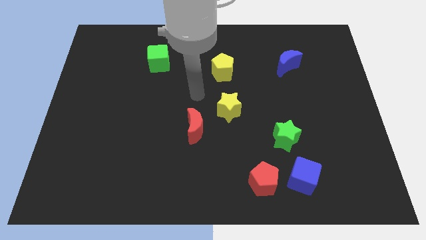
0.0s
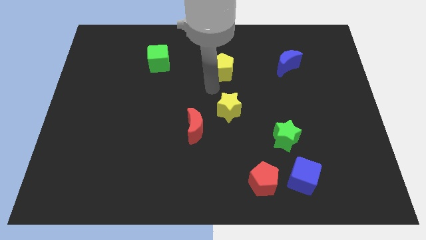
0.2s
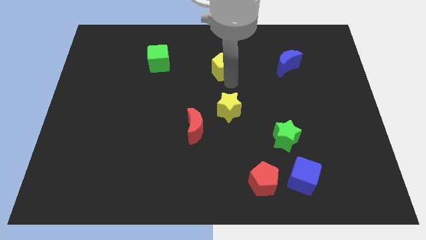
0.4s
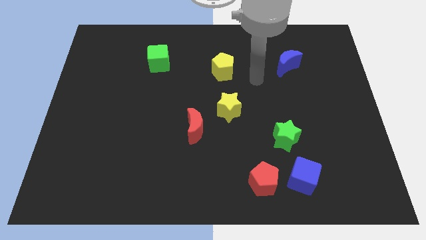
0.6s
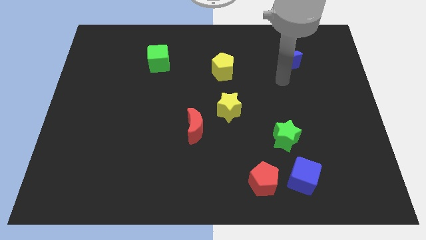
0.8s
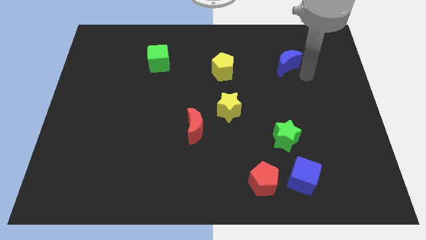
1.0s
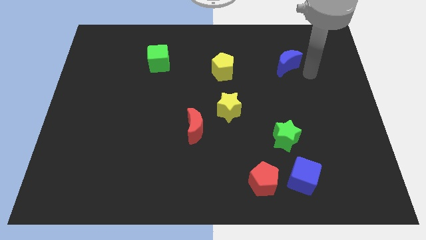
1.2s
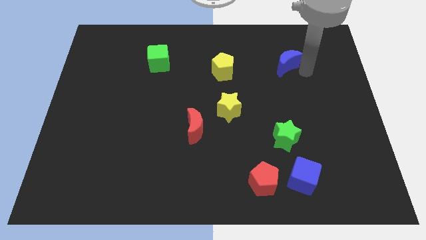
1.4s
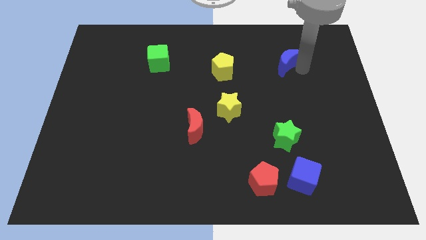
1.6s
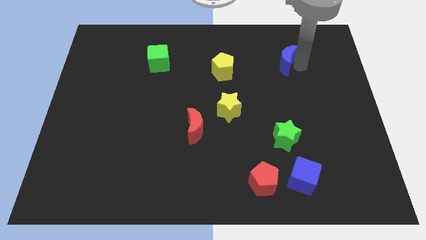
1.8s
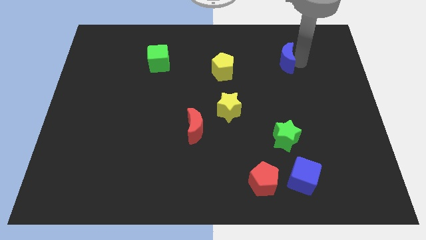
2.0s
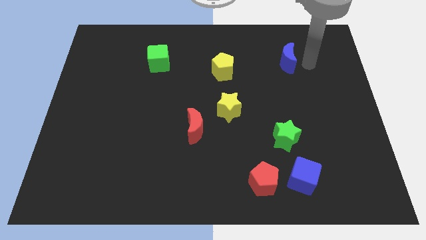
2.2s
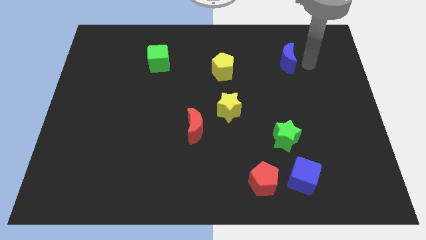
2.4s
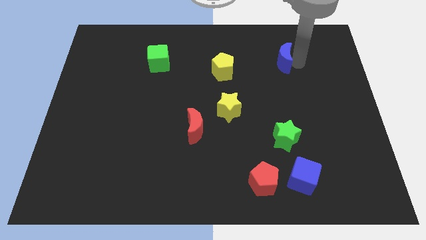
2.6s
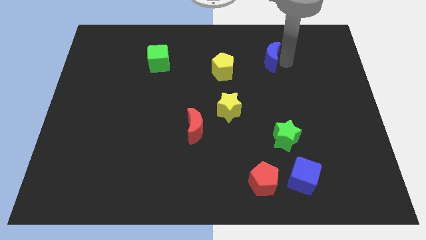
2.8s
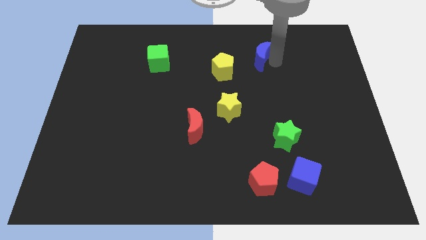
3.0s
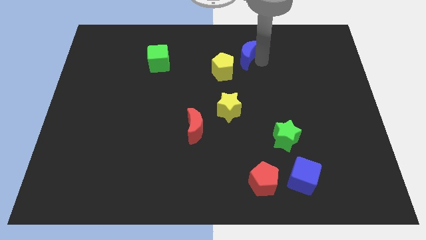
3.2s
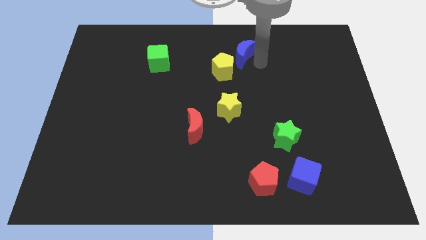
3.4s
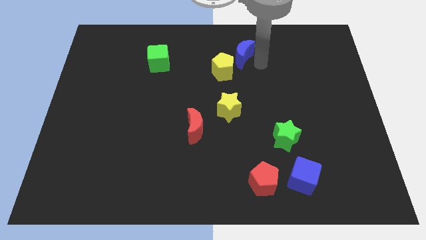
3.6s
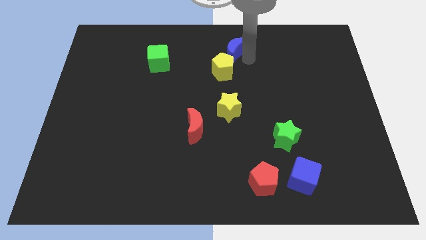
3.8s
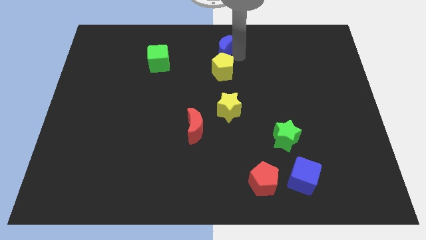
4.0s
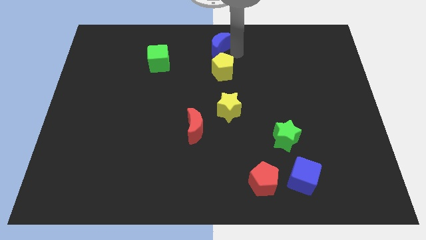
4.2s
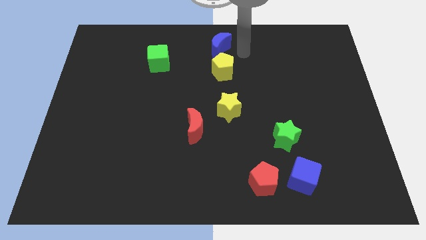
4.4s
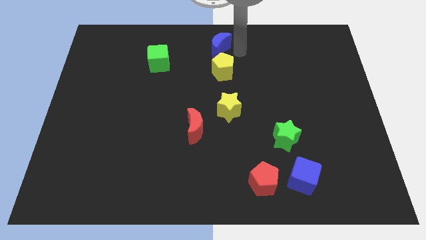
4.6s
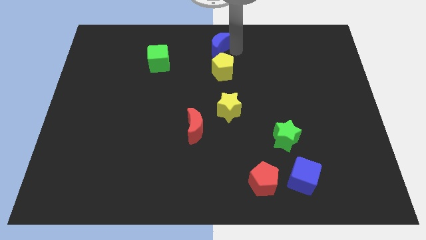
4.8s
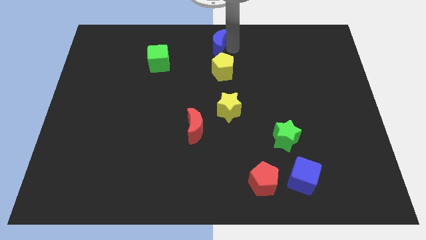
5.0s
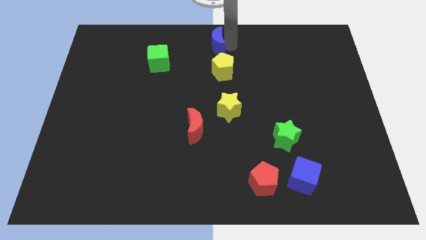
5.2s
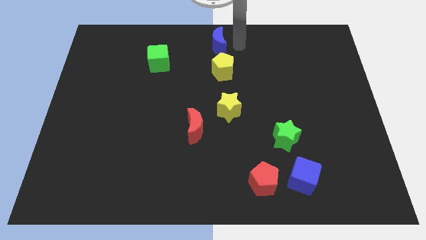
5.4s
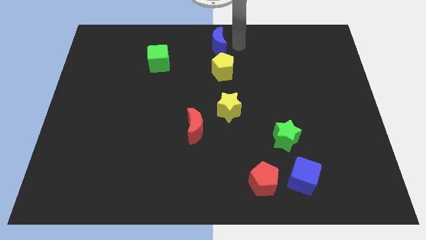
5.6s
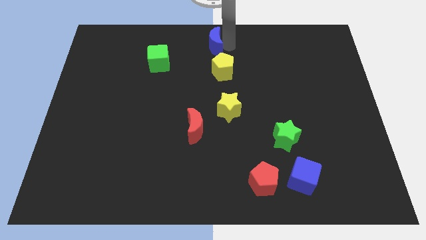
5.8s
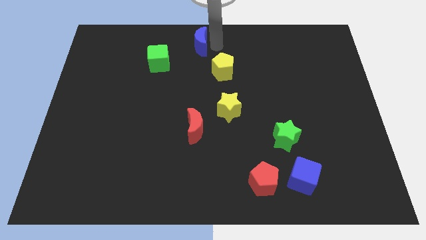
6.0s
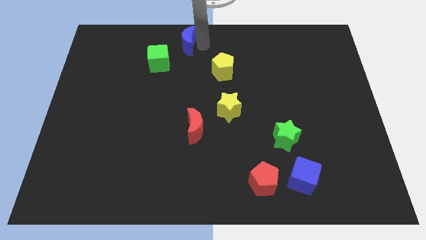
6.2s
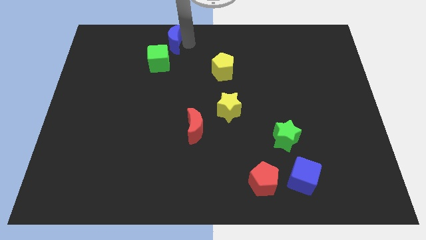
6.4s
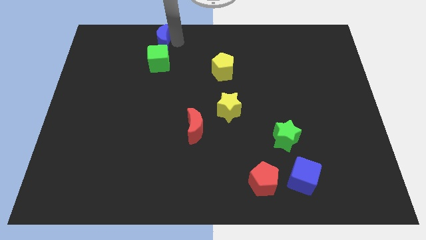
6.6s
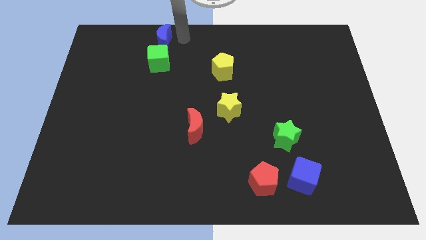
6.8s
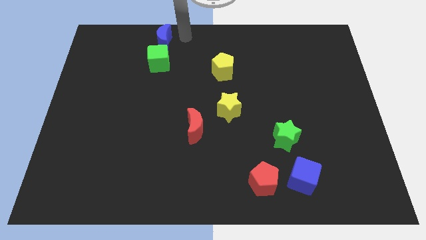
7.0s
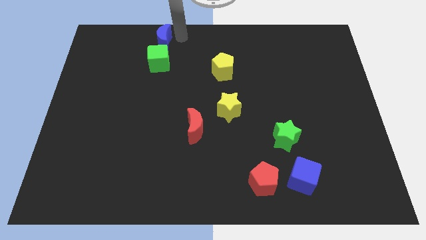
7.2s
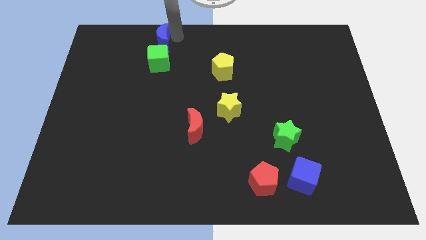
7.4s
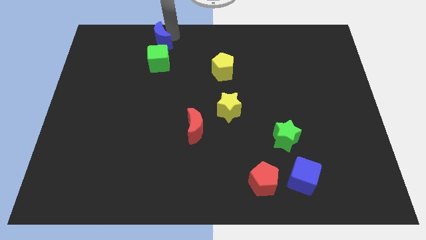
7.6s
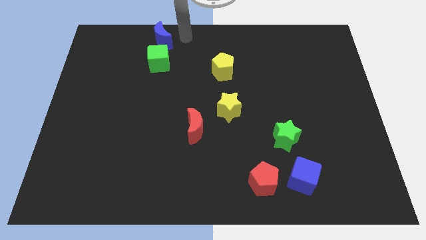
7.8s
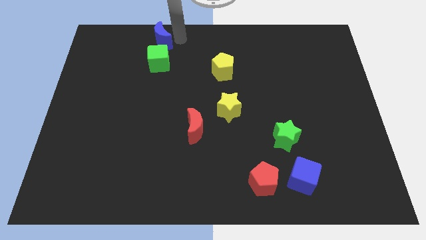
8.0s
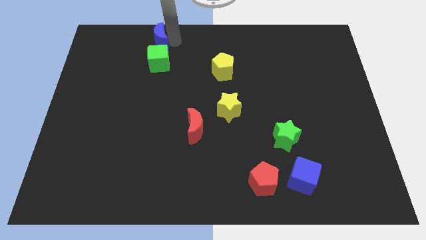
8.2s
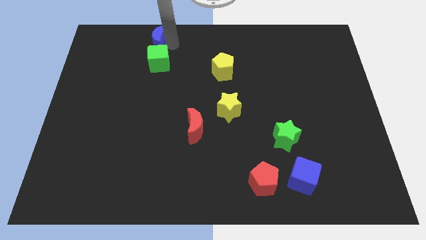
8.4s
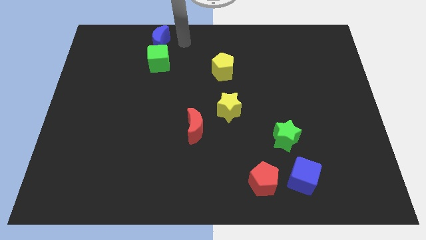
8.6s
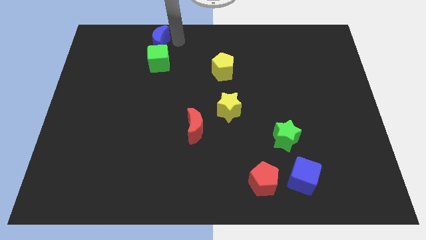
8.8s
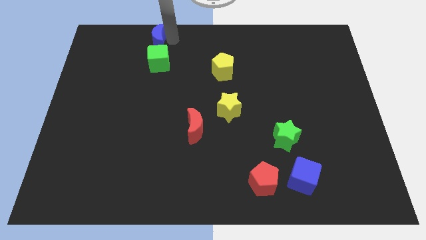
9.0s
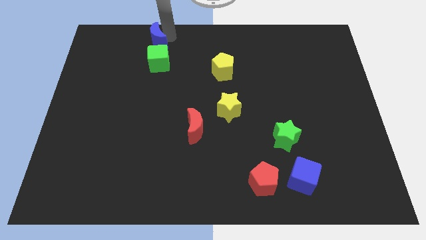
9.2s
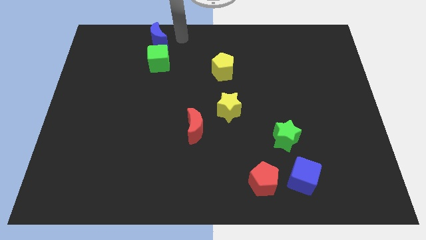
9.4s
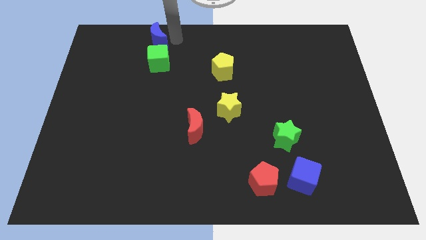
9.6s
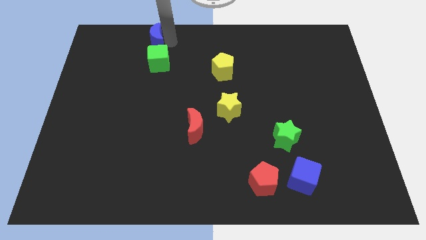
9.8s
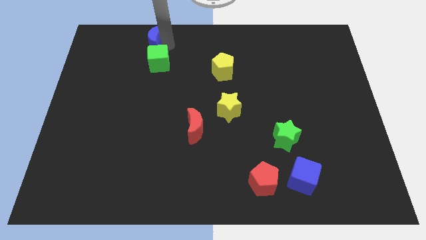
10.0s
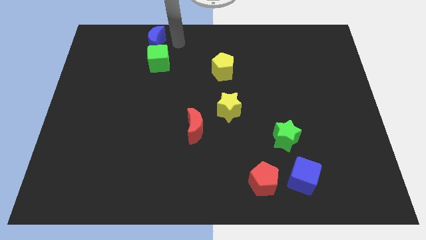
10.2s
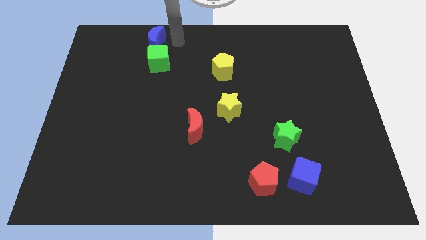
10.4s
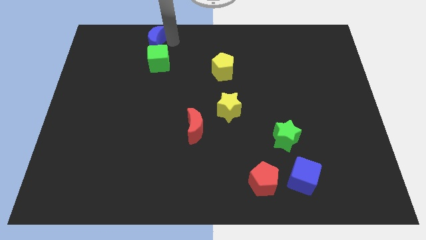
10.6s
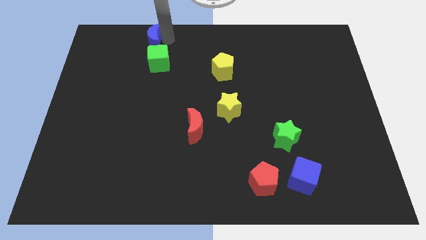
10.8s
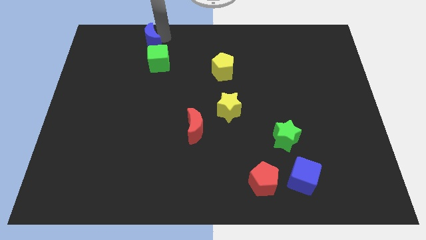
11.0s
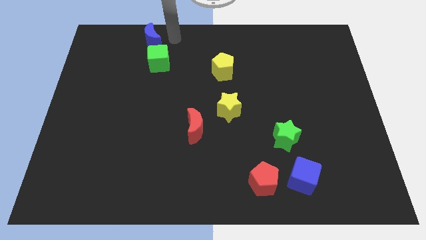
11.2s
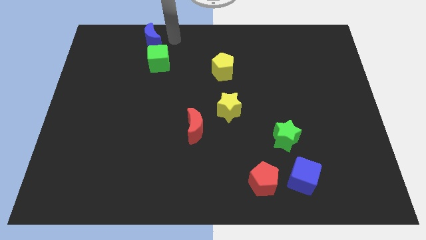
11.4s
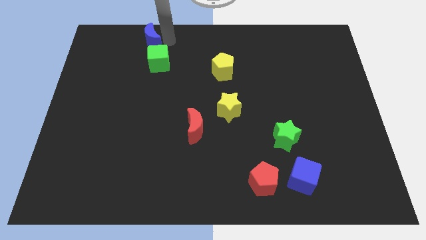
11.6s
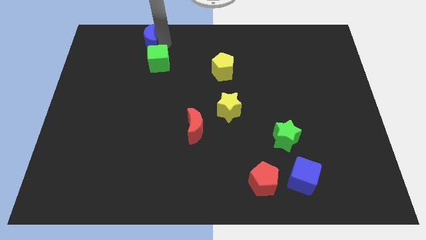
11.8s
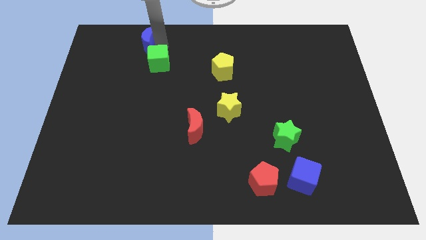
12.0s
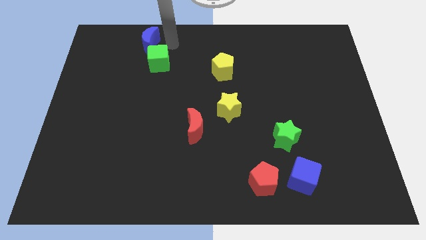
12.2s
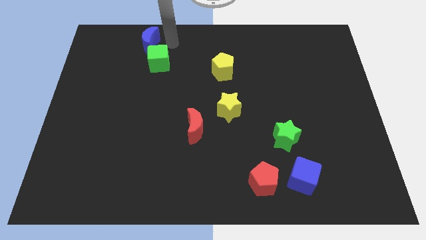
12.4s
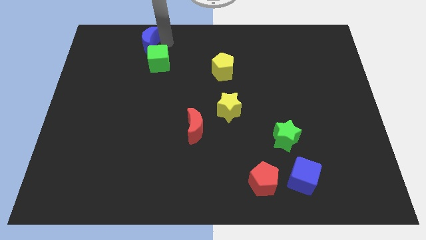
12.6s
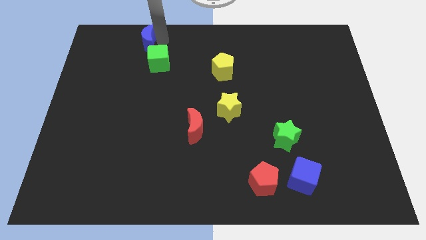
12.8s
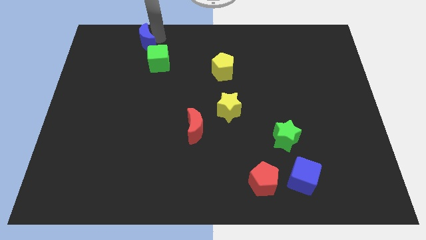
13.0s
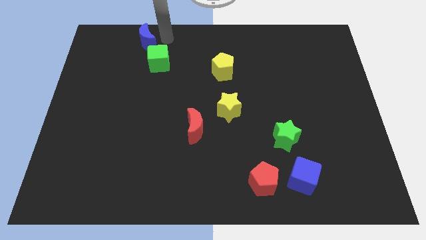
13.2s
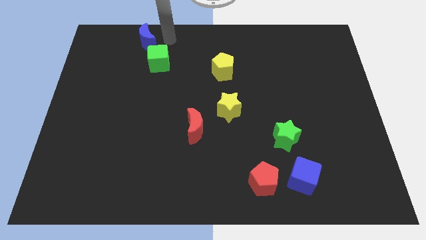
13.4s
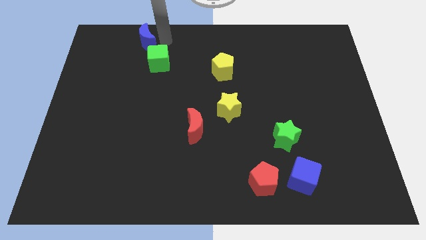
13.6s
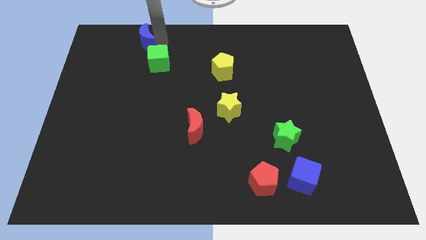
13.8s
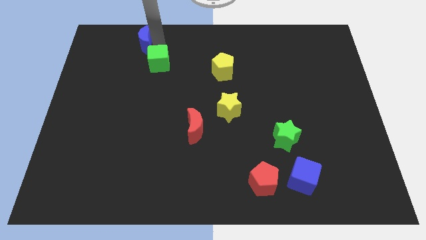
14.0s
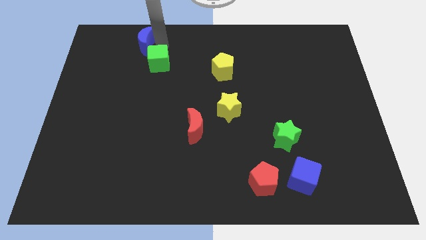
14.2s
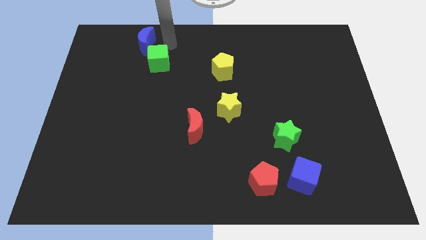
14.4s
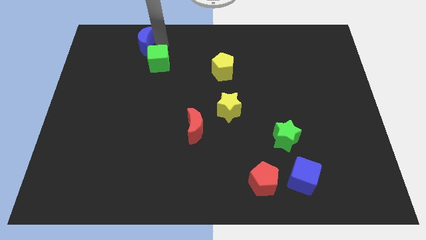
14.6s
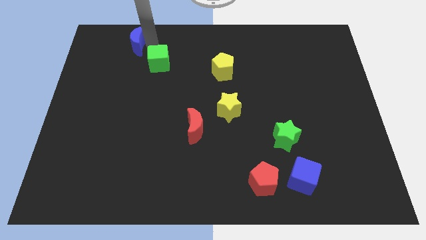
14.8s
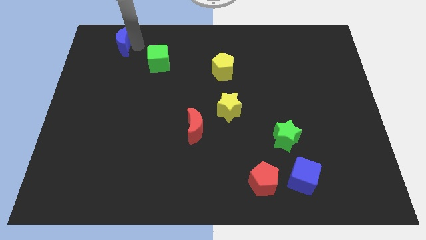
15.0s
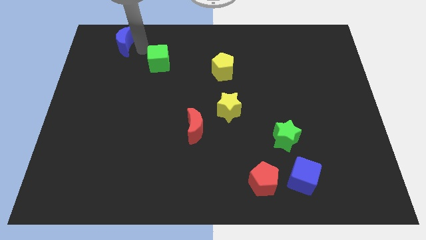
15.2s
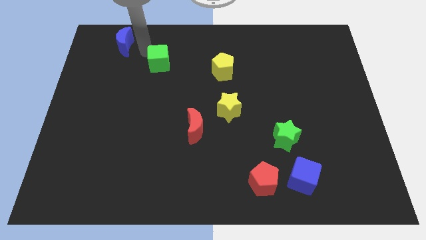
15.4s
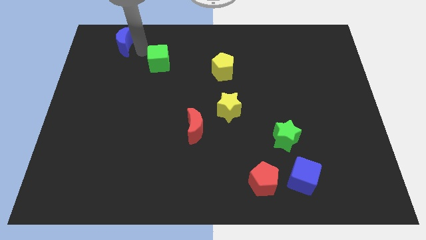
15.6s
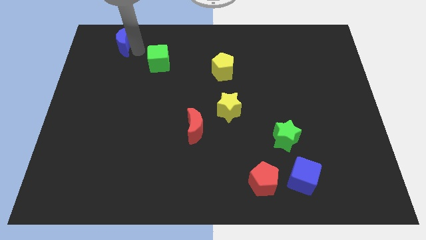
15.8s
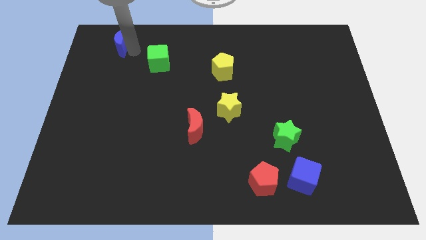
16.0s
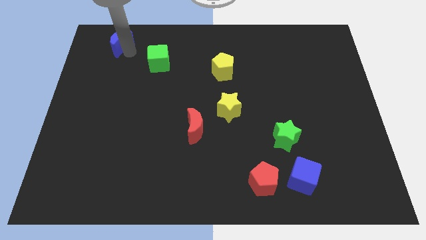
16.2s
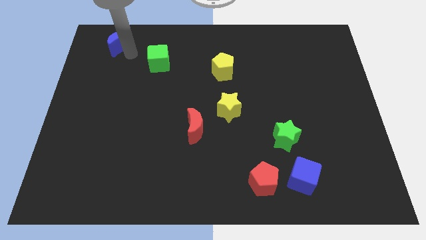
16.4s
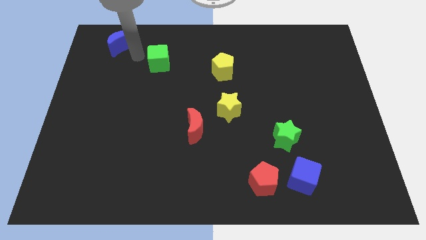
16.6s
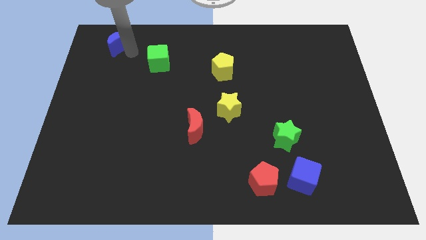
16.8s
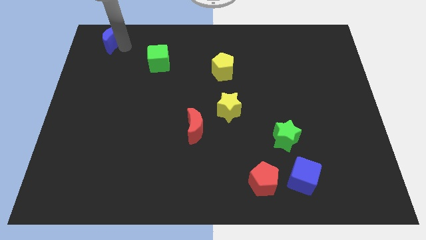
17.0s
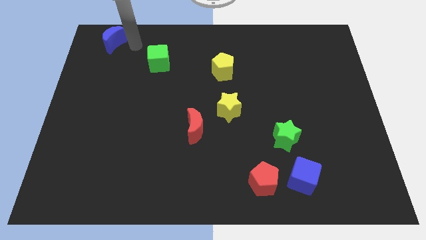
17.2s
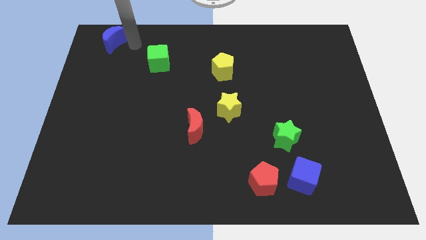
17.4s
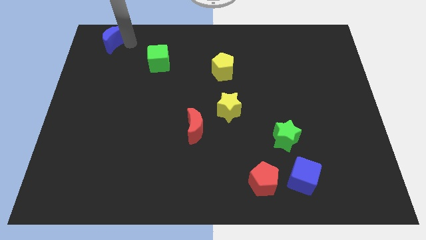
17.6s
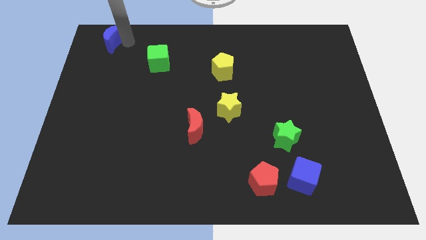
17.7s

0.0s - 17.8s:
put the blue moon to the top left
